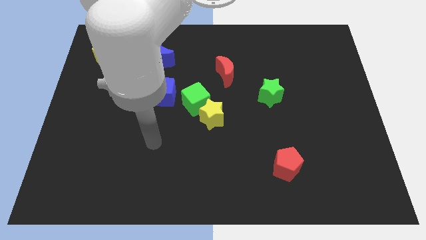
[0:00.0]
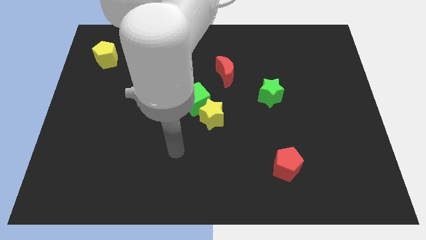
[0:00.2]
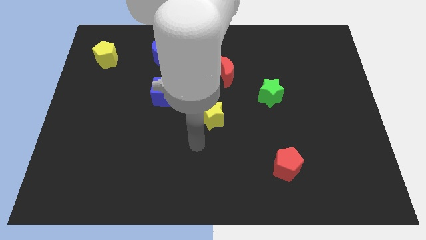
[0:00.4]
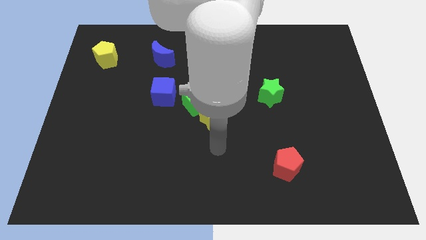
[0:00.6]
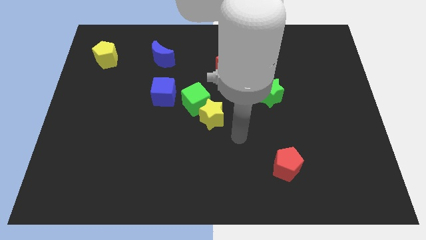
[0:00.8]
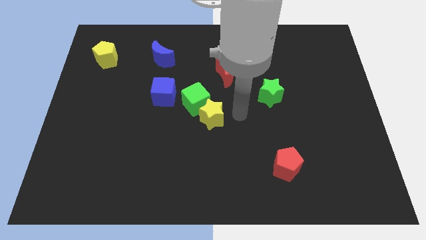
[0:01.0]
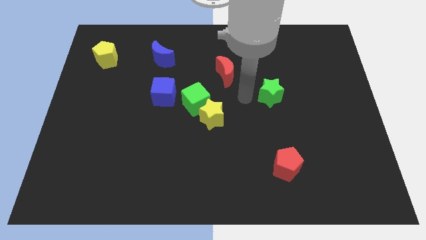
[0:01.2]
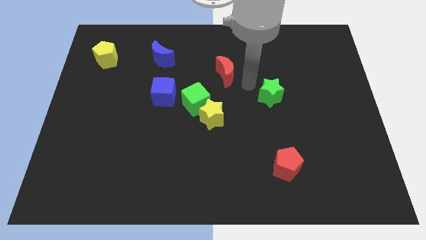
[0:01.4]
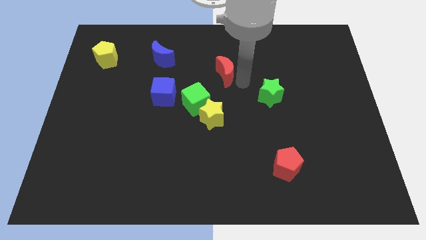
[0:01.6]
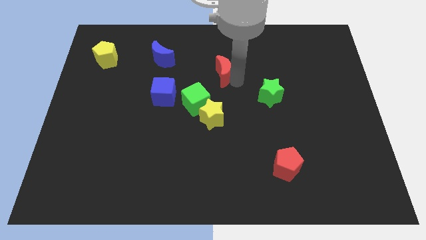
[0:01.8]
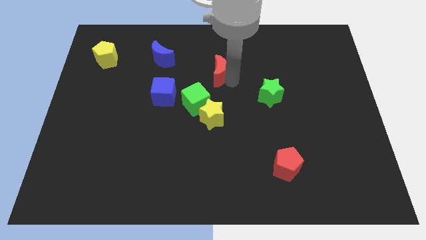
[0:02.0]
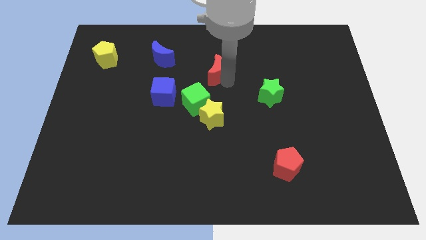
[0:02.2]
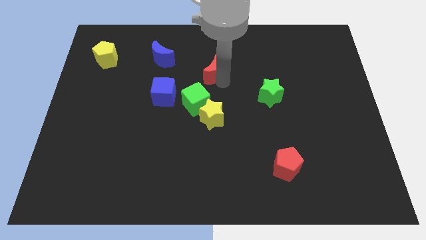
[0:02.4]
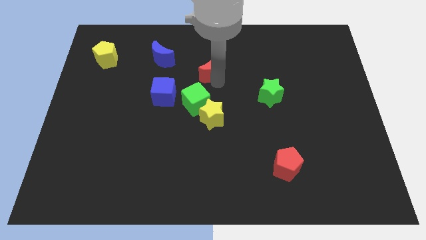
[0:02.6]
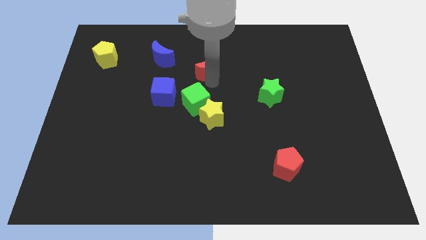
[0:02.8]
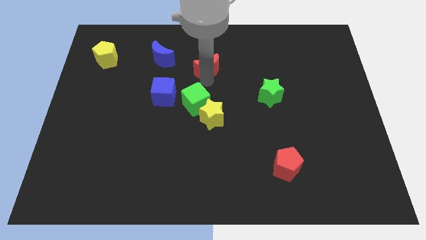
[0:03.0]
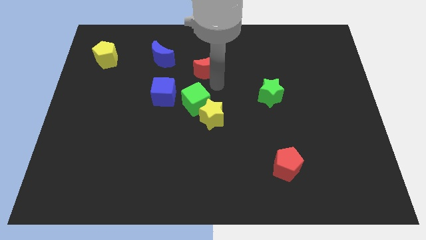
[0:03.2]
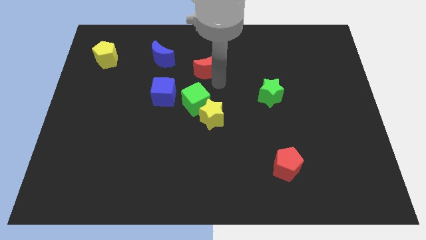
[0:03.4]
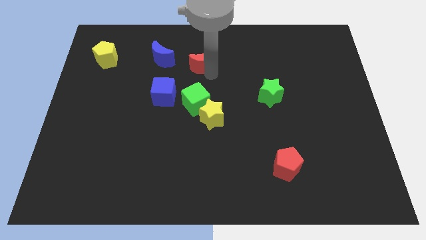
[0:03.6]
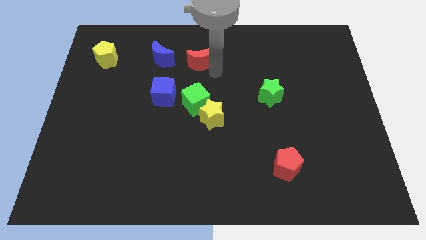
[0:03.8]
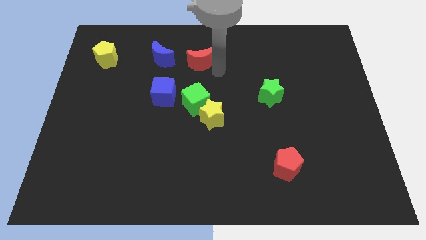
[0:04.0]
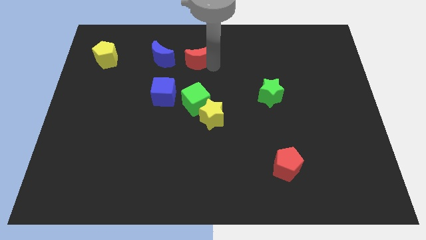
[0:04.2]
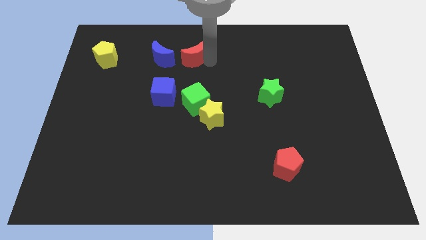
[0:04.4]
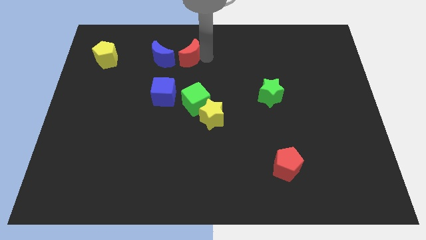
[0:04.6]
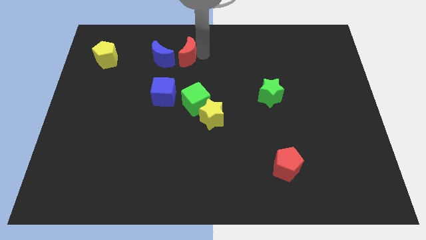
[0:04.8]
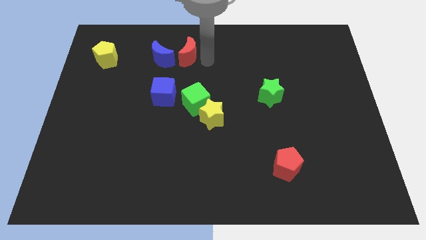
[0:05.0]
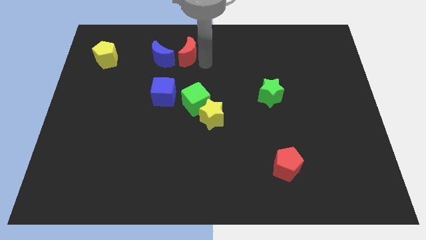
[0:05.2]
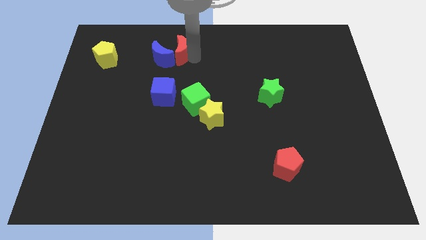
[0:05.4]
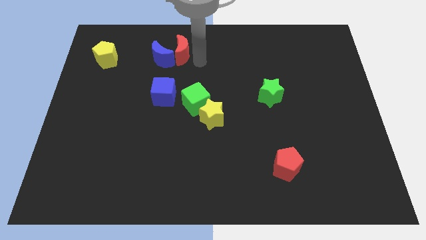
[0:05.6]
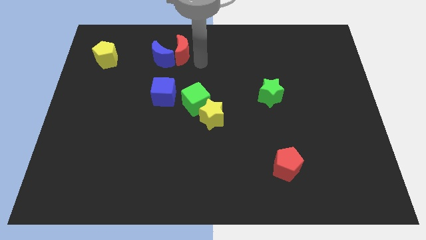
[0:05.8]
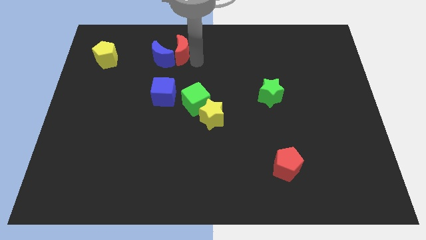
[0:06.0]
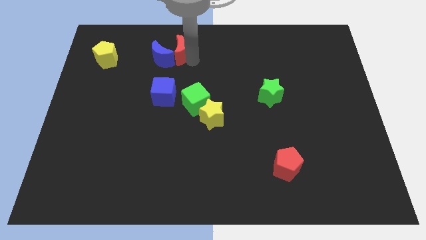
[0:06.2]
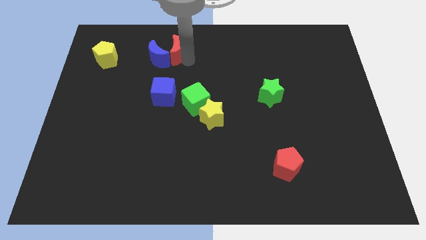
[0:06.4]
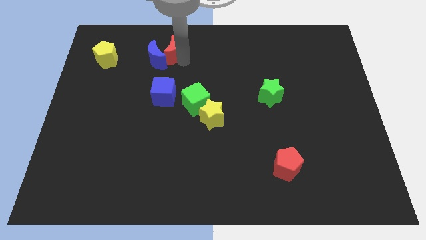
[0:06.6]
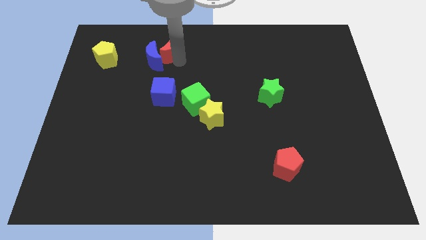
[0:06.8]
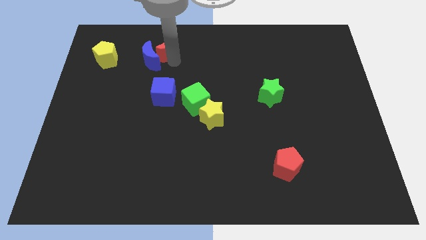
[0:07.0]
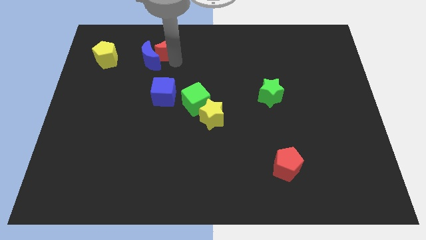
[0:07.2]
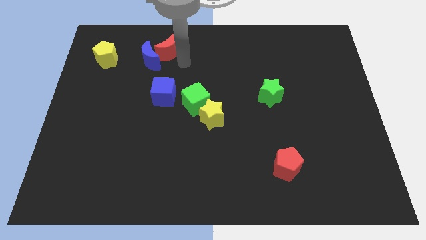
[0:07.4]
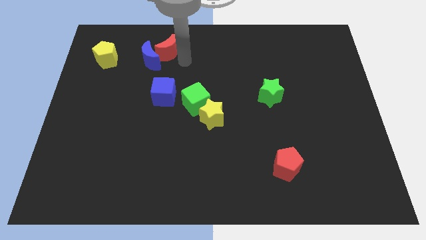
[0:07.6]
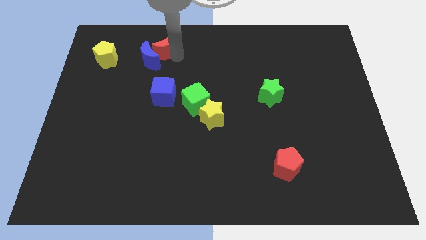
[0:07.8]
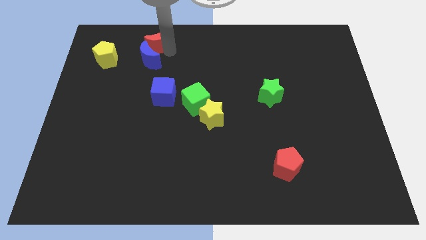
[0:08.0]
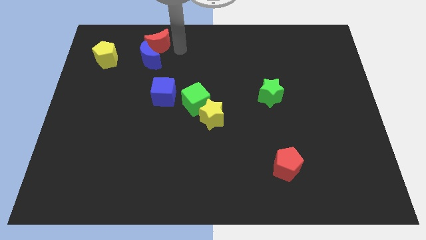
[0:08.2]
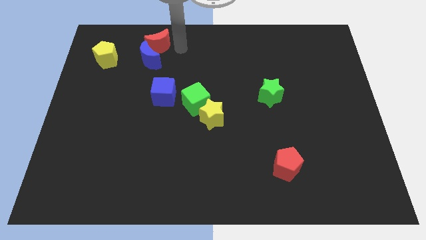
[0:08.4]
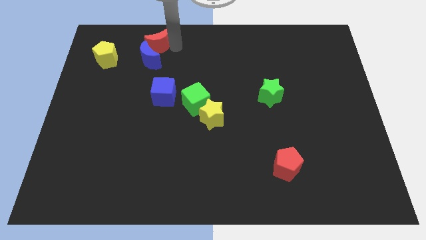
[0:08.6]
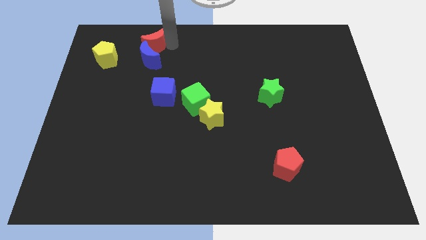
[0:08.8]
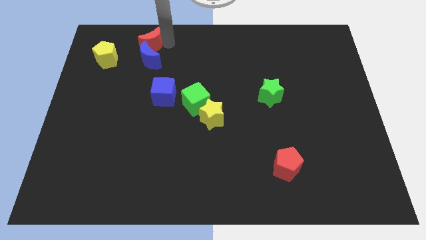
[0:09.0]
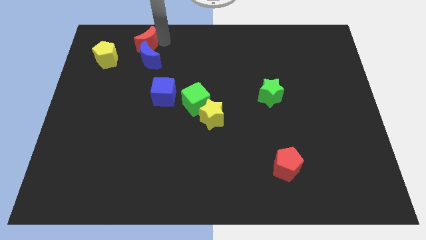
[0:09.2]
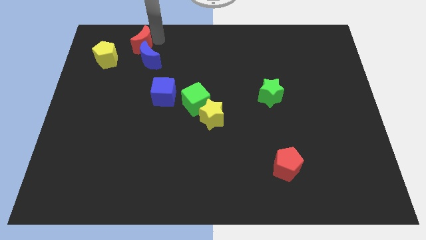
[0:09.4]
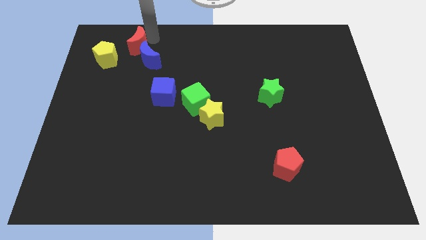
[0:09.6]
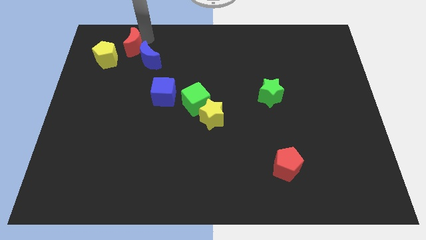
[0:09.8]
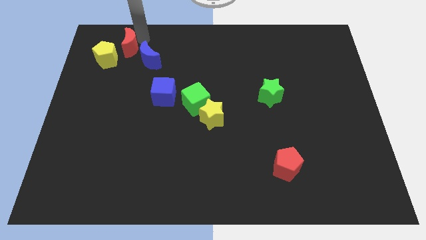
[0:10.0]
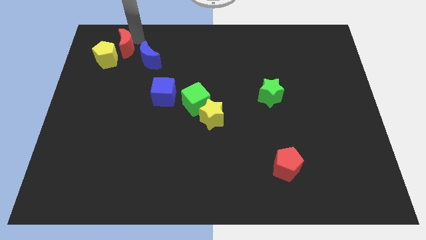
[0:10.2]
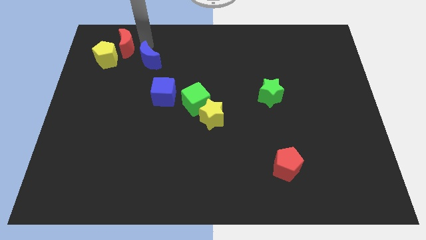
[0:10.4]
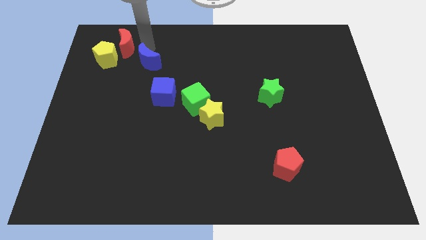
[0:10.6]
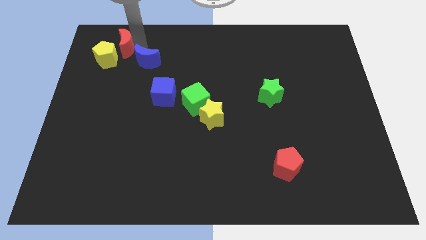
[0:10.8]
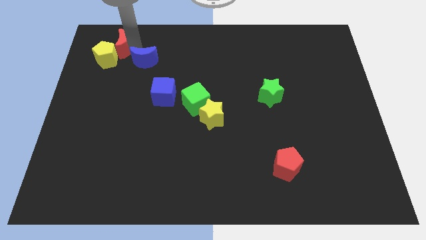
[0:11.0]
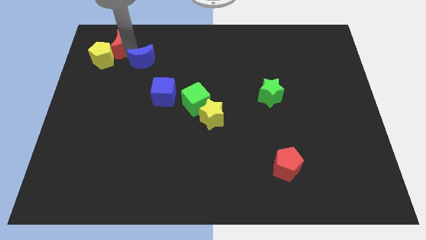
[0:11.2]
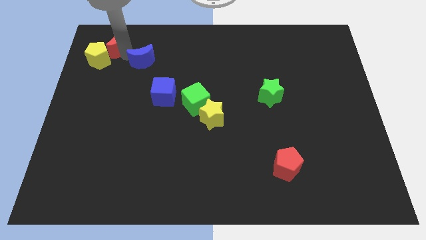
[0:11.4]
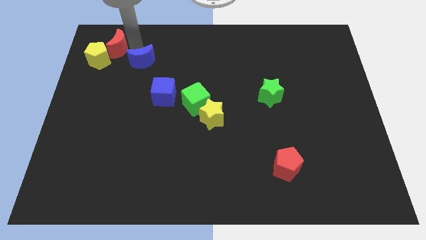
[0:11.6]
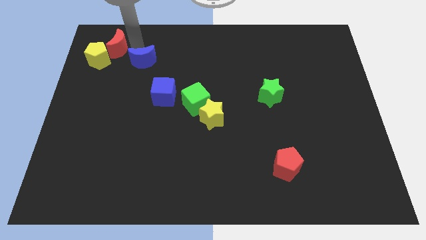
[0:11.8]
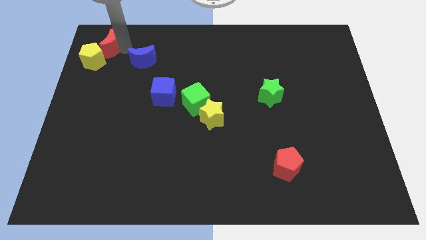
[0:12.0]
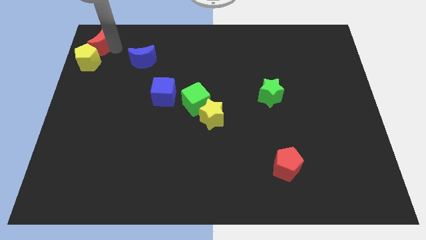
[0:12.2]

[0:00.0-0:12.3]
push the red moon to the top left corner

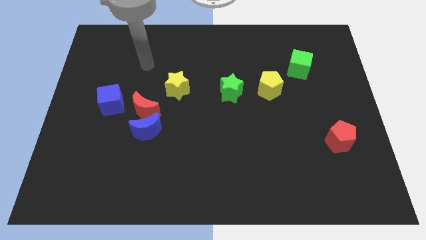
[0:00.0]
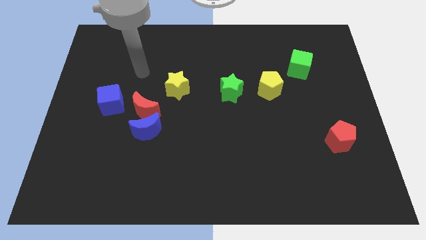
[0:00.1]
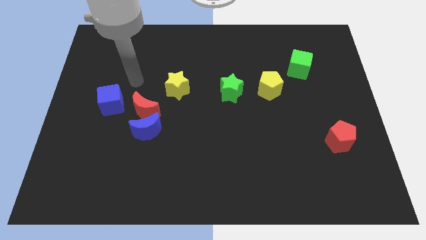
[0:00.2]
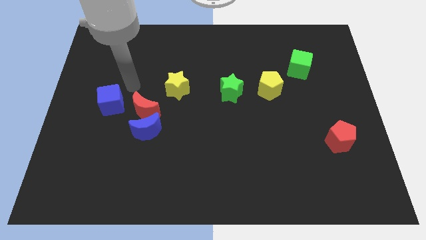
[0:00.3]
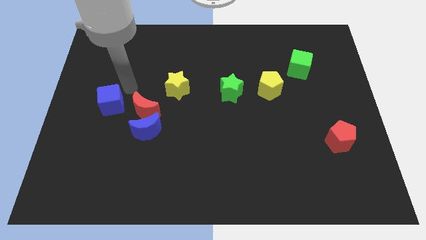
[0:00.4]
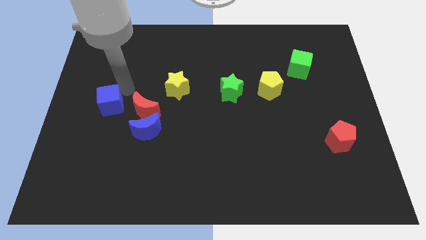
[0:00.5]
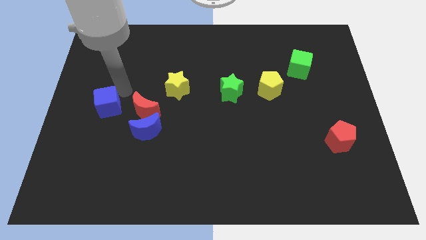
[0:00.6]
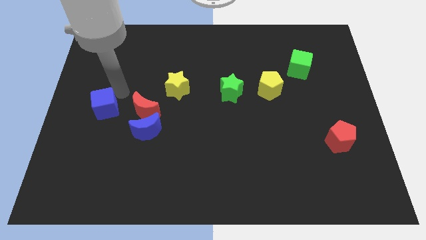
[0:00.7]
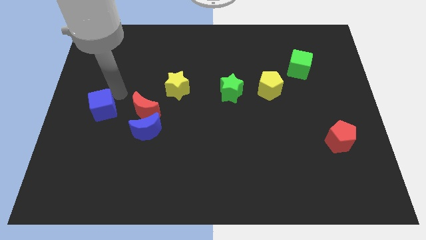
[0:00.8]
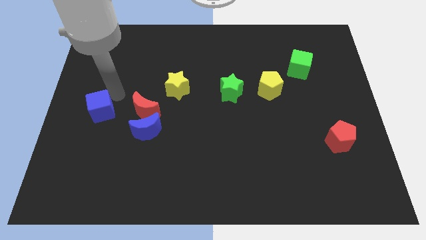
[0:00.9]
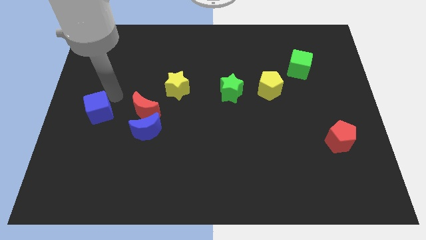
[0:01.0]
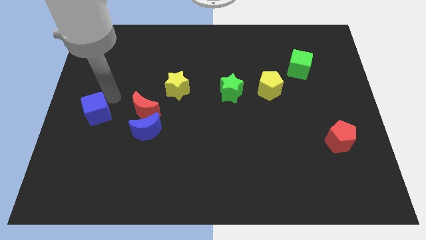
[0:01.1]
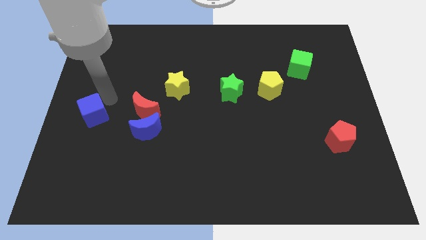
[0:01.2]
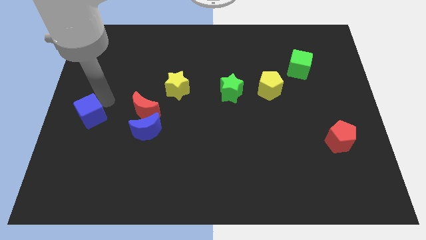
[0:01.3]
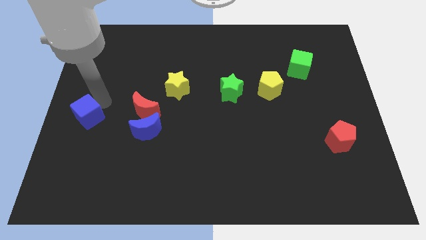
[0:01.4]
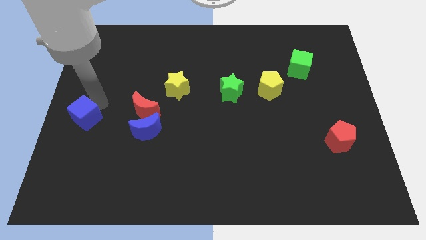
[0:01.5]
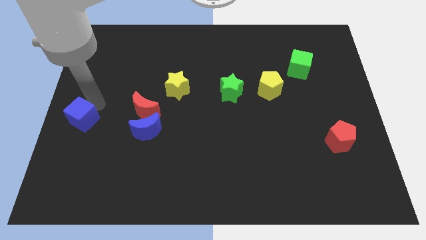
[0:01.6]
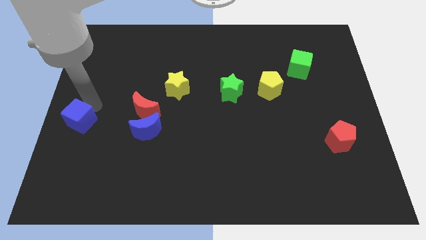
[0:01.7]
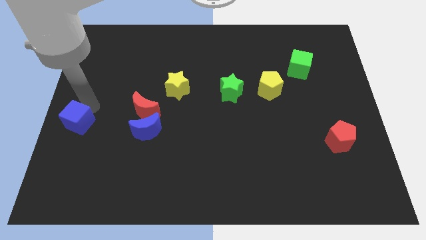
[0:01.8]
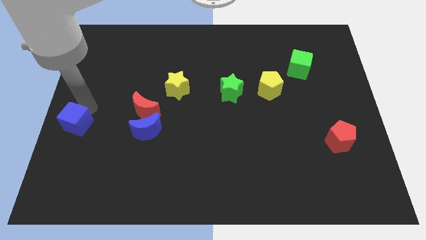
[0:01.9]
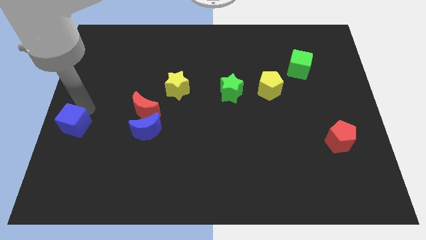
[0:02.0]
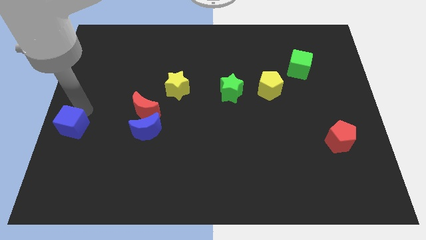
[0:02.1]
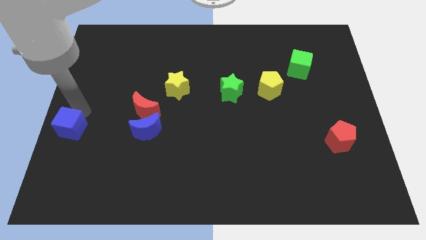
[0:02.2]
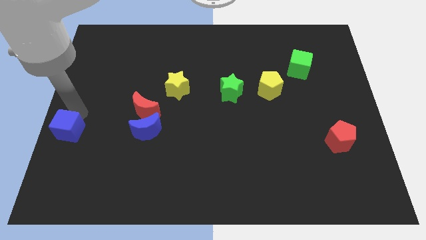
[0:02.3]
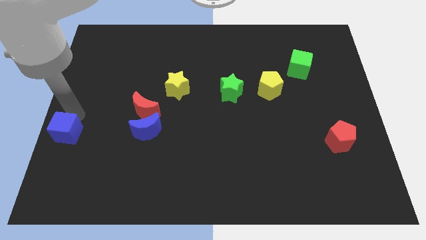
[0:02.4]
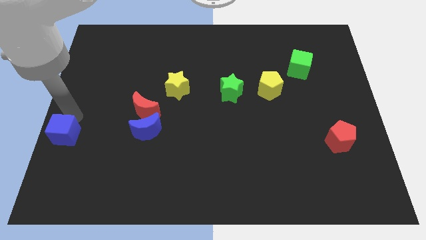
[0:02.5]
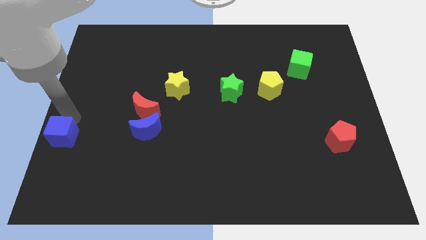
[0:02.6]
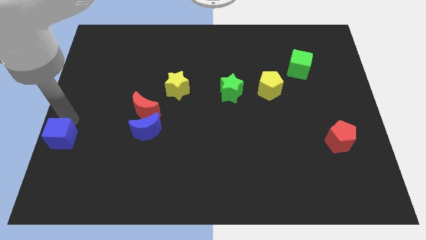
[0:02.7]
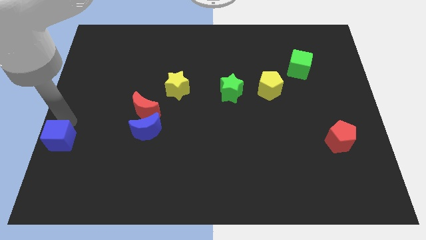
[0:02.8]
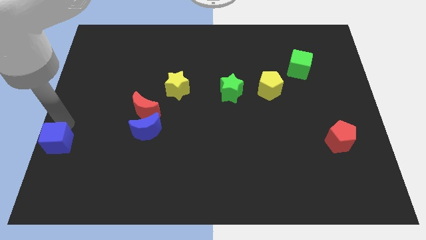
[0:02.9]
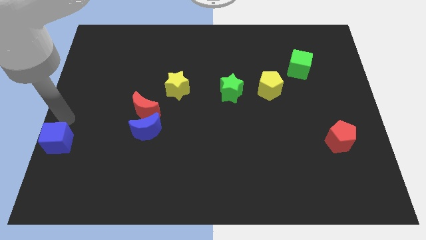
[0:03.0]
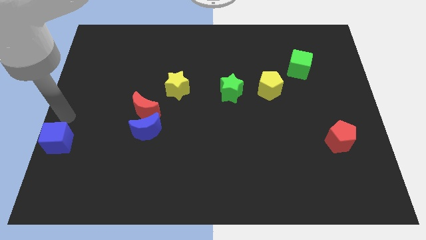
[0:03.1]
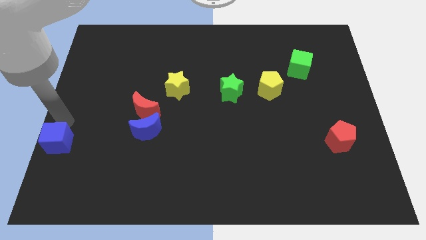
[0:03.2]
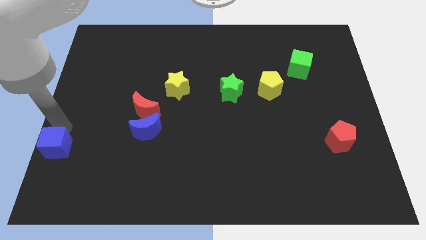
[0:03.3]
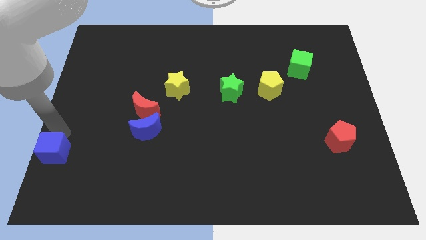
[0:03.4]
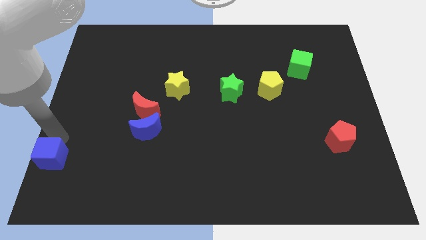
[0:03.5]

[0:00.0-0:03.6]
move the blue cube to the bottom left corner
